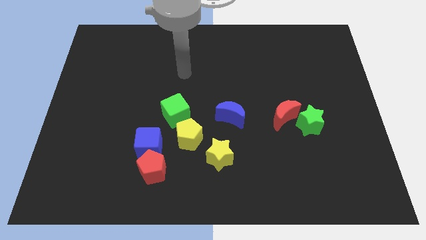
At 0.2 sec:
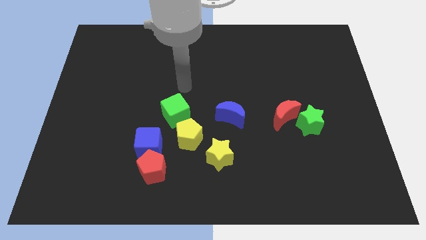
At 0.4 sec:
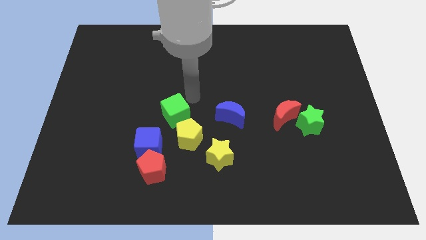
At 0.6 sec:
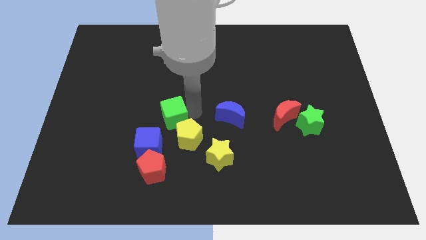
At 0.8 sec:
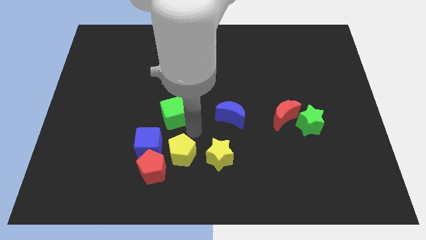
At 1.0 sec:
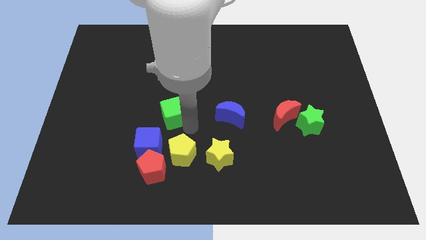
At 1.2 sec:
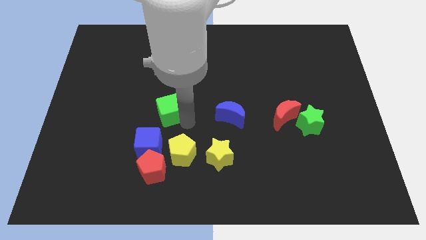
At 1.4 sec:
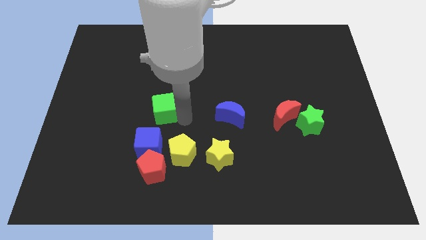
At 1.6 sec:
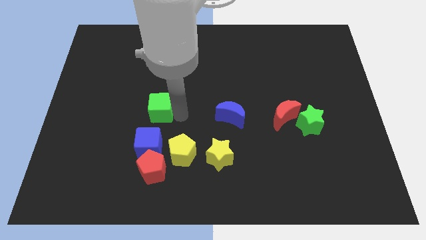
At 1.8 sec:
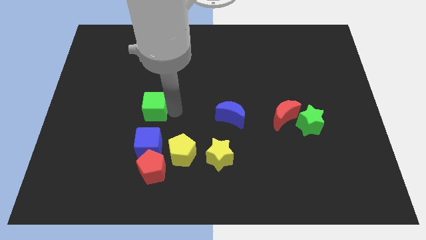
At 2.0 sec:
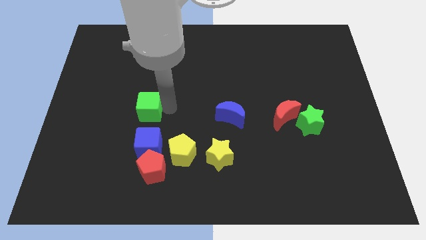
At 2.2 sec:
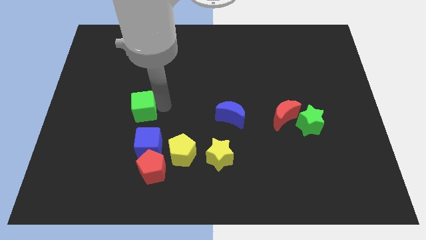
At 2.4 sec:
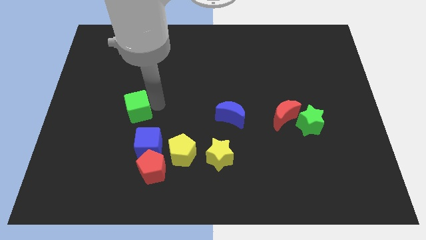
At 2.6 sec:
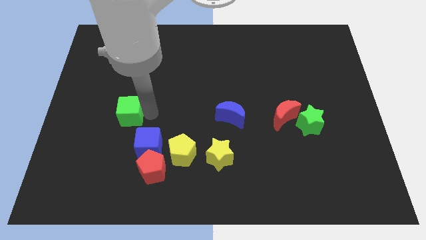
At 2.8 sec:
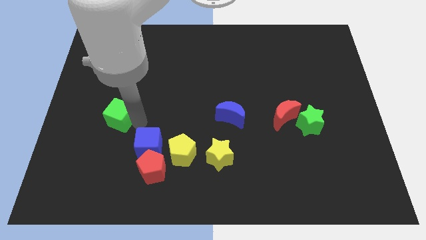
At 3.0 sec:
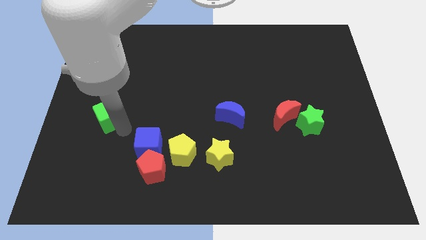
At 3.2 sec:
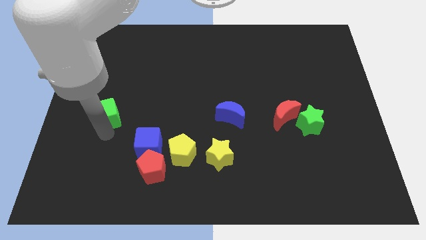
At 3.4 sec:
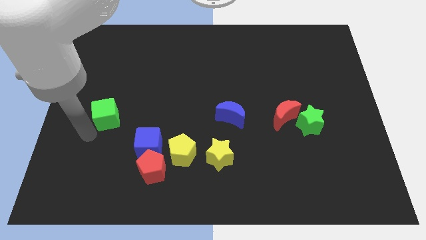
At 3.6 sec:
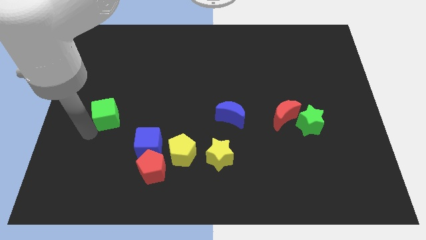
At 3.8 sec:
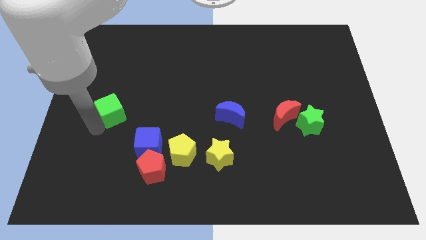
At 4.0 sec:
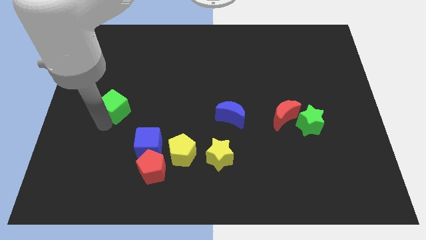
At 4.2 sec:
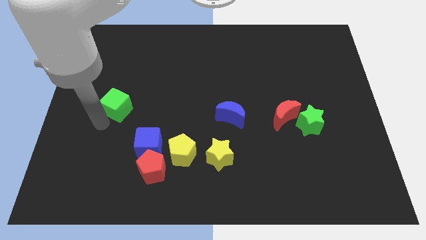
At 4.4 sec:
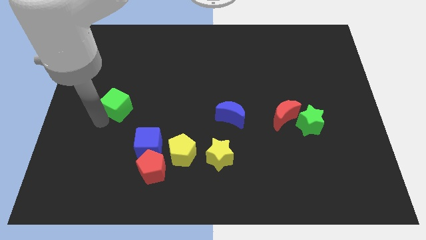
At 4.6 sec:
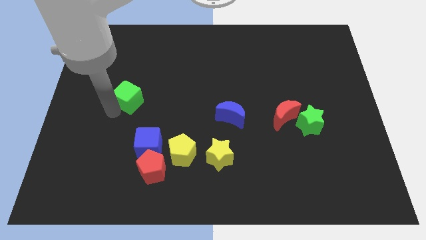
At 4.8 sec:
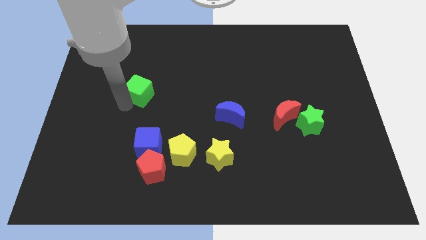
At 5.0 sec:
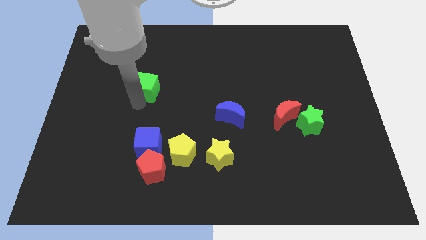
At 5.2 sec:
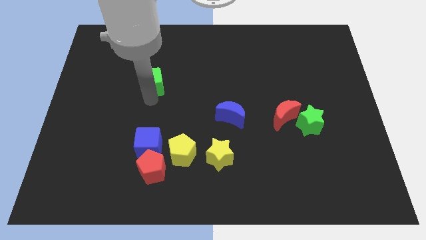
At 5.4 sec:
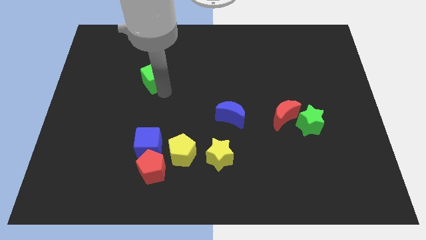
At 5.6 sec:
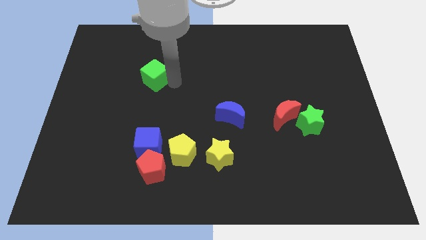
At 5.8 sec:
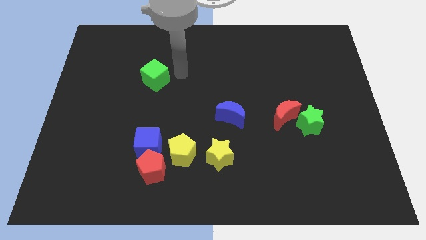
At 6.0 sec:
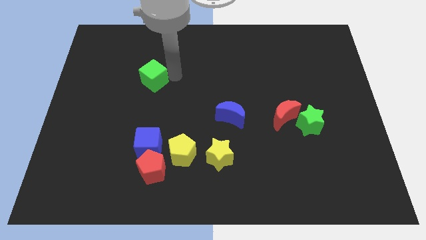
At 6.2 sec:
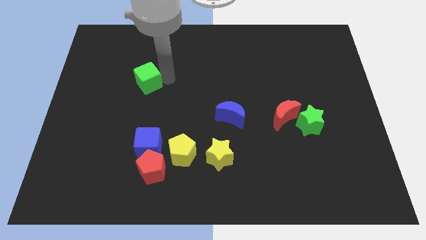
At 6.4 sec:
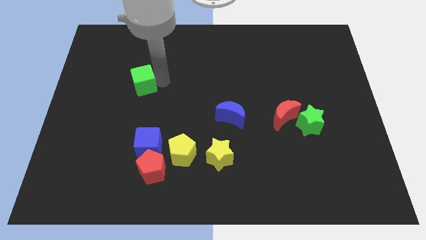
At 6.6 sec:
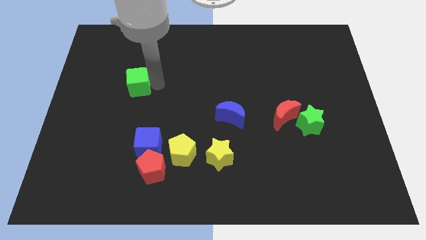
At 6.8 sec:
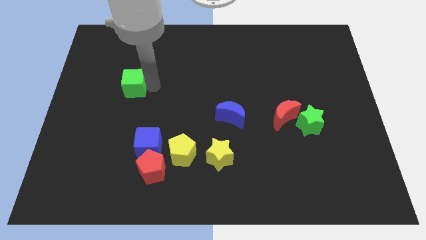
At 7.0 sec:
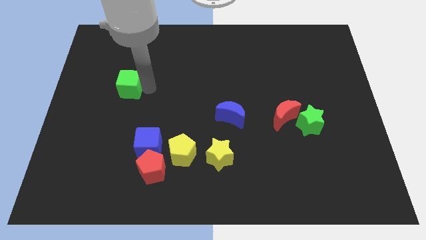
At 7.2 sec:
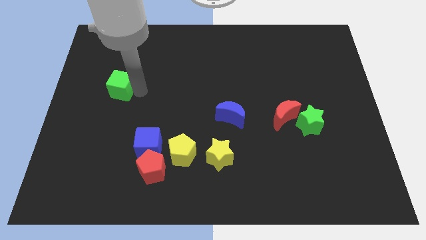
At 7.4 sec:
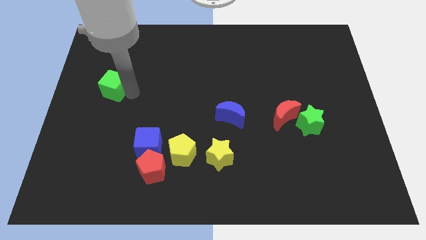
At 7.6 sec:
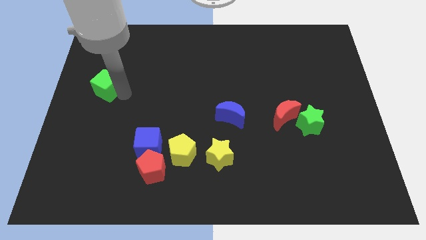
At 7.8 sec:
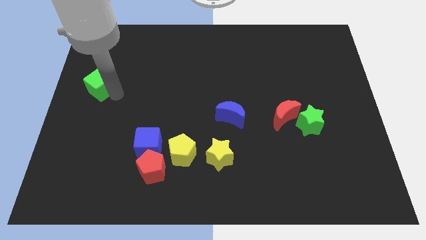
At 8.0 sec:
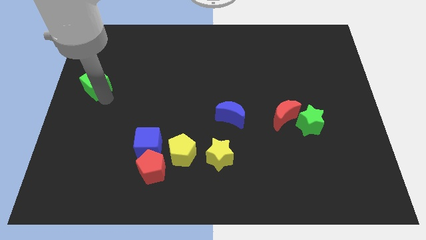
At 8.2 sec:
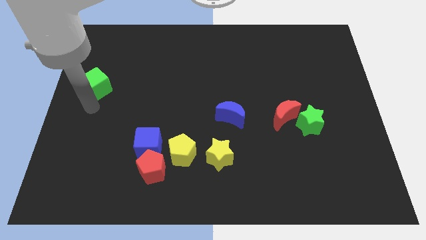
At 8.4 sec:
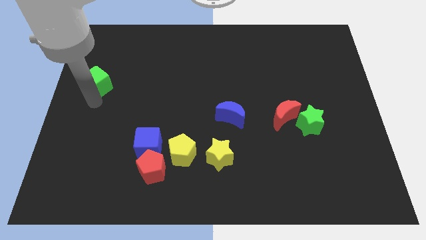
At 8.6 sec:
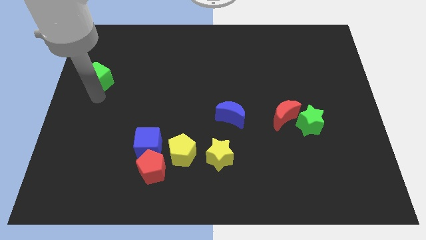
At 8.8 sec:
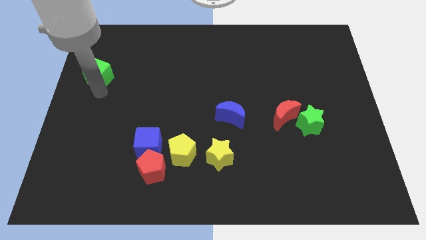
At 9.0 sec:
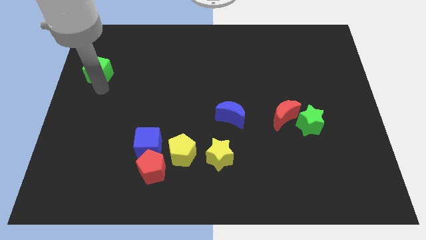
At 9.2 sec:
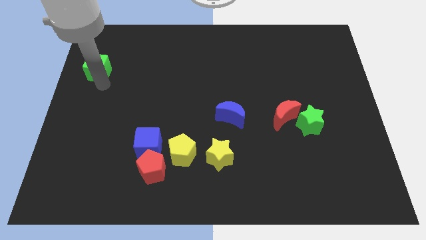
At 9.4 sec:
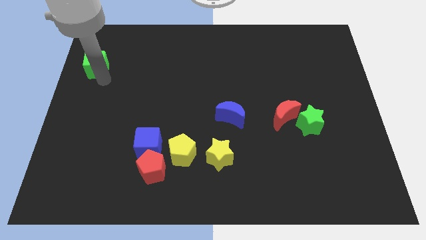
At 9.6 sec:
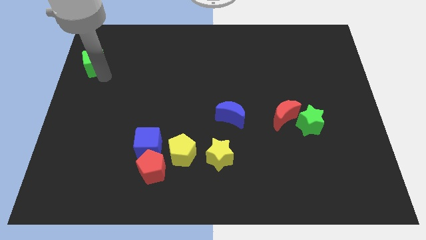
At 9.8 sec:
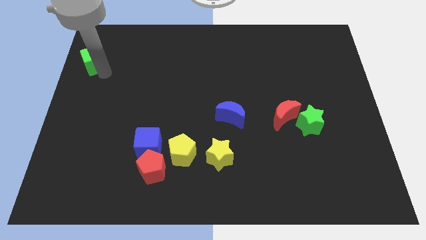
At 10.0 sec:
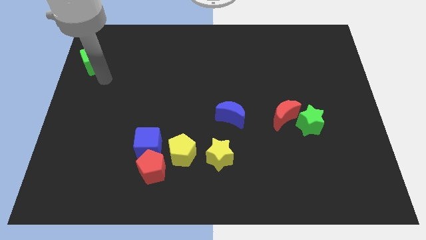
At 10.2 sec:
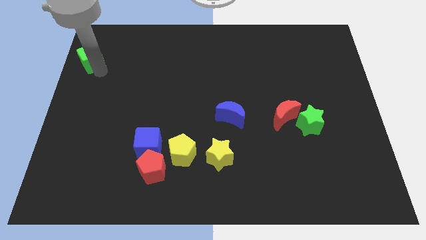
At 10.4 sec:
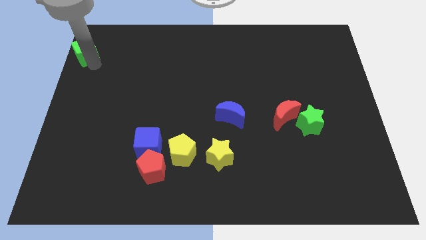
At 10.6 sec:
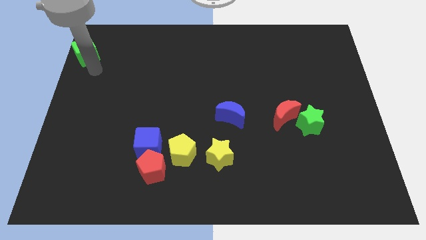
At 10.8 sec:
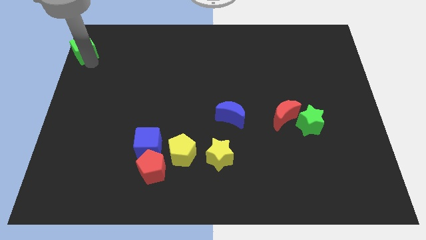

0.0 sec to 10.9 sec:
put the green cube to the upper left corner
